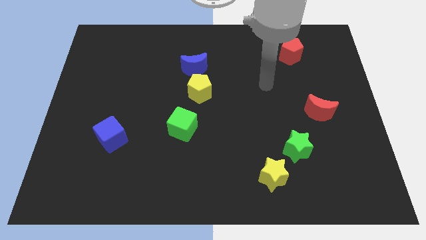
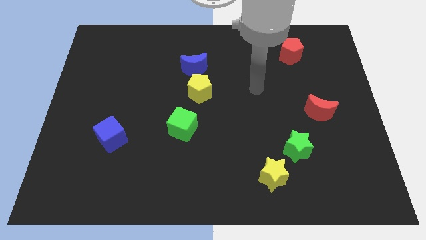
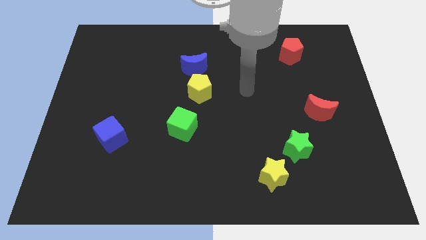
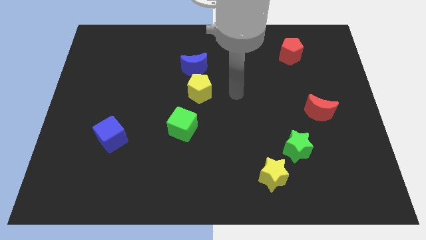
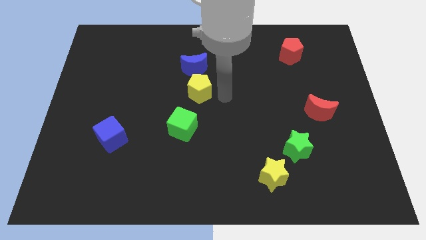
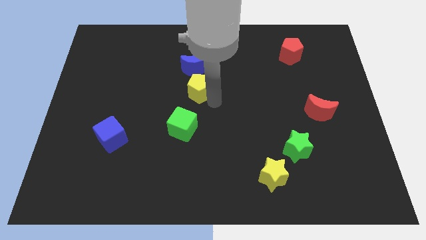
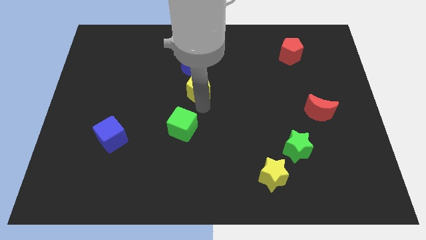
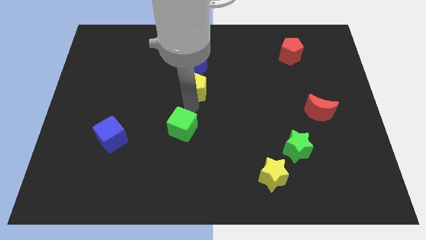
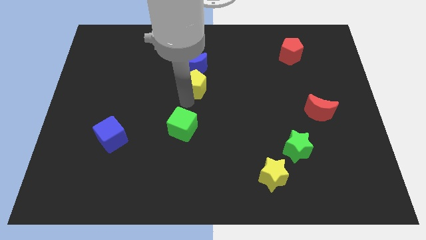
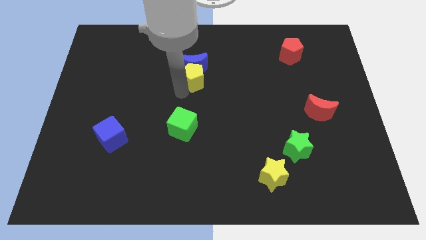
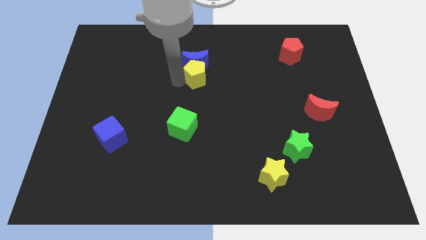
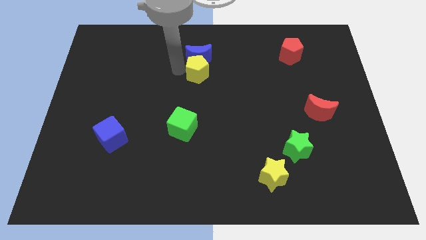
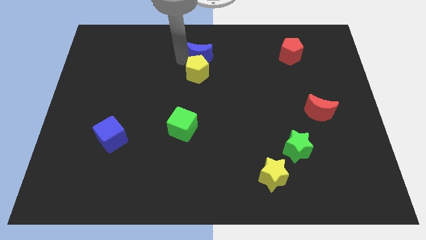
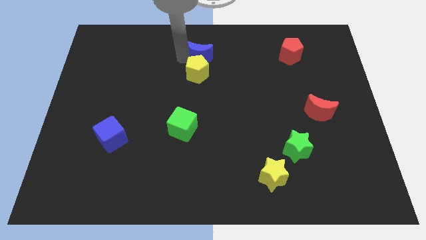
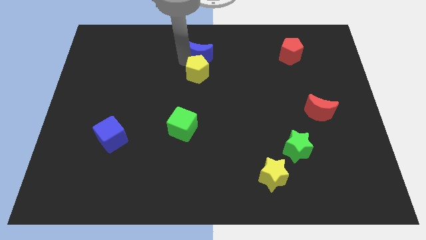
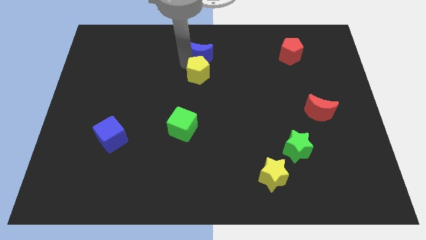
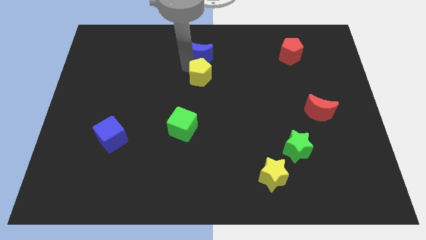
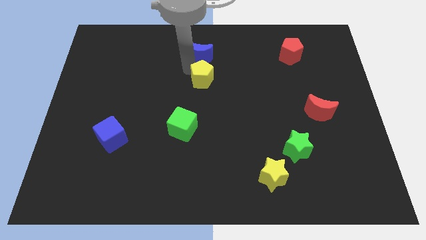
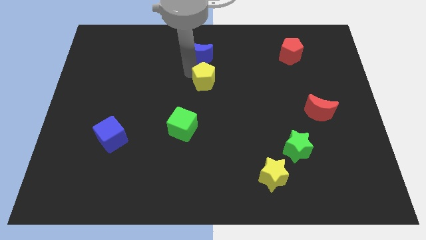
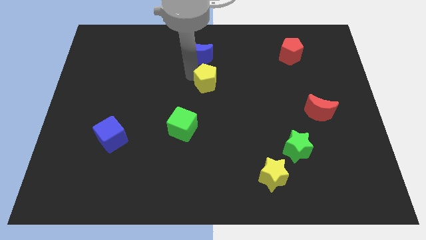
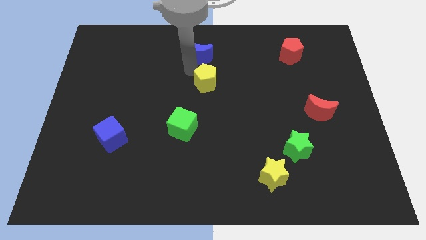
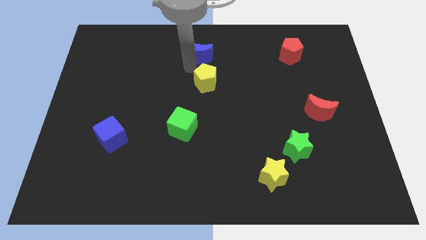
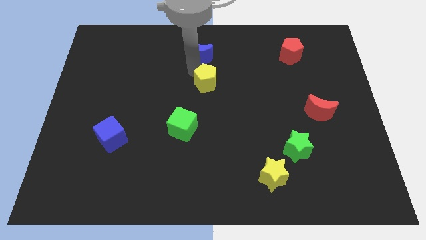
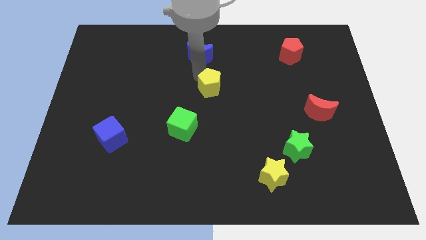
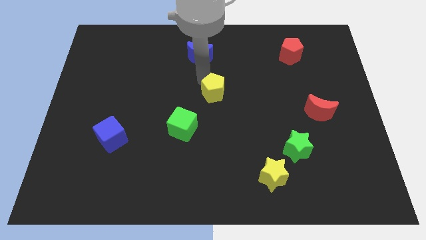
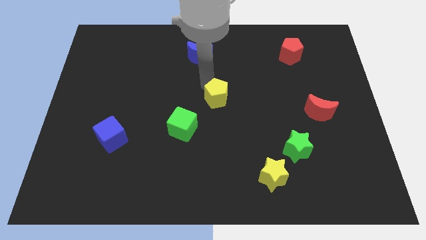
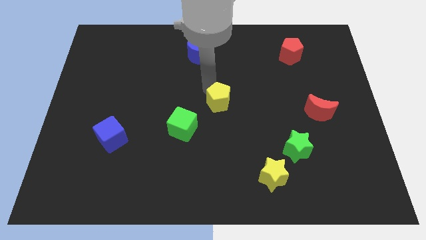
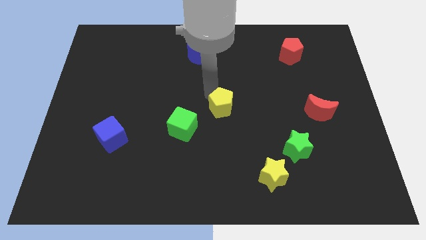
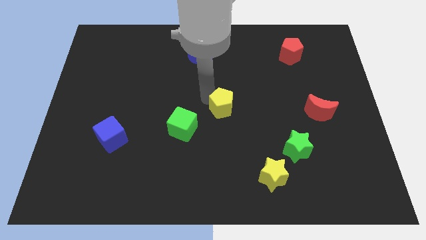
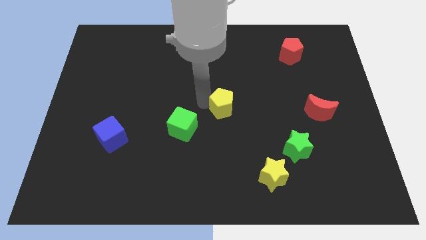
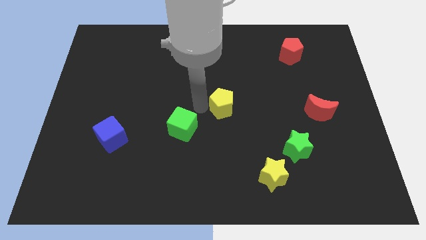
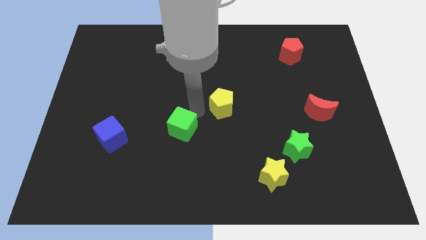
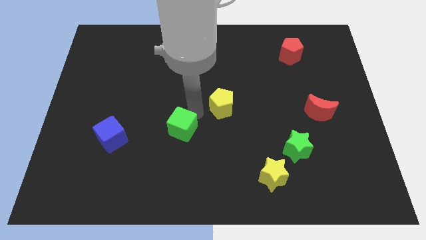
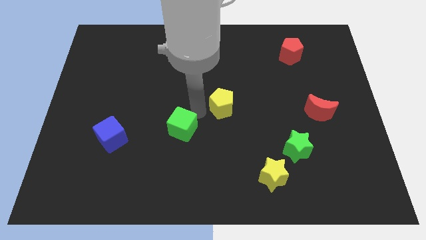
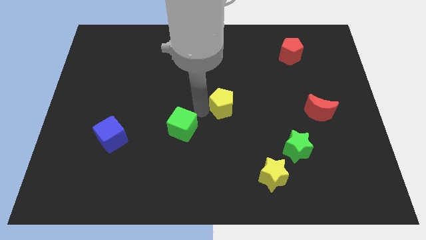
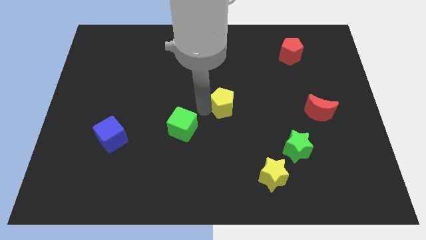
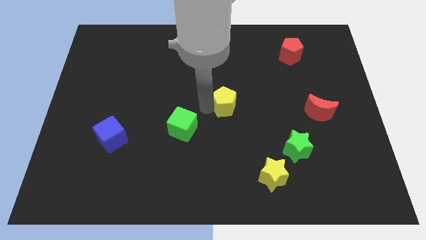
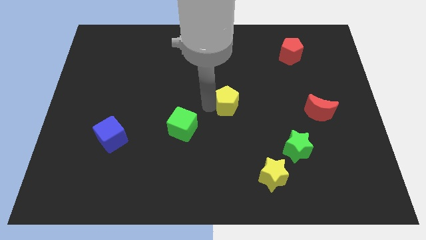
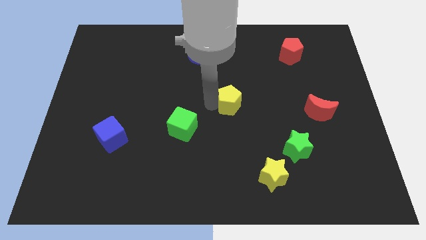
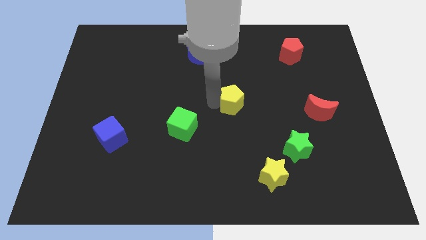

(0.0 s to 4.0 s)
slide the yellow pentagon to the right slightly

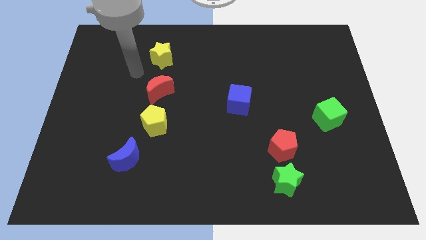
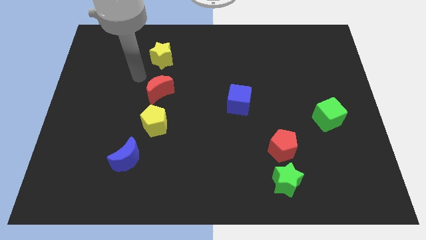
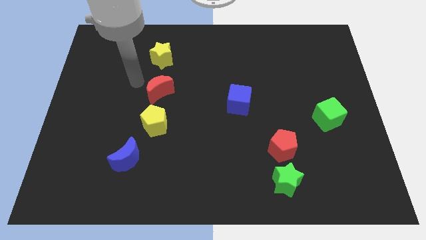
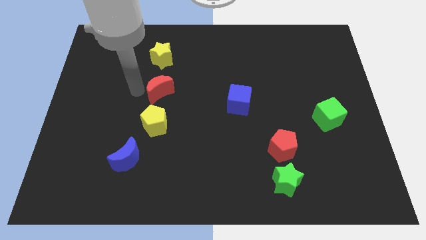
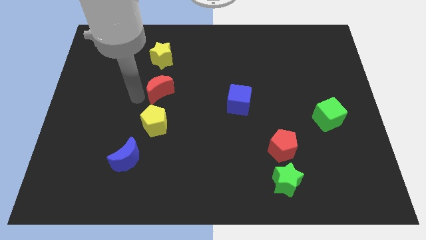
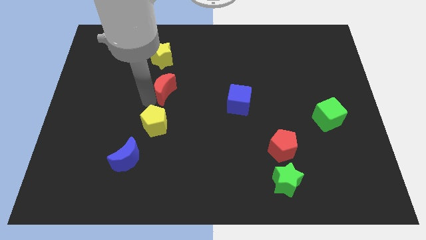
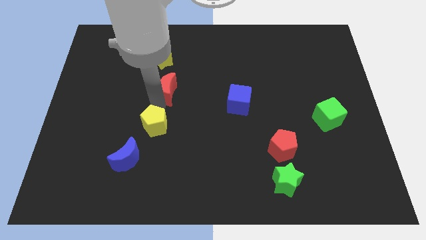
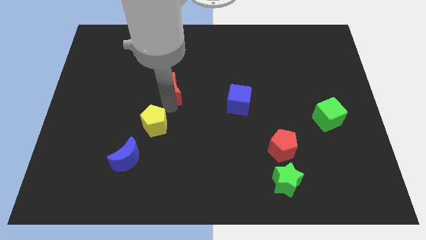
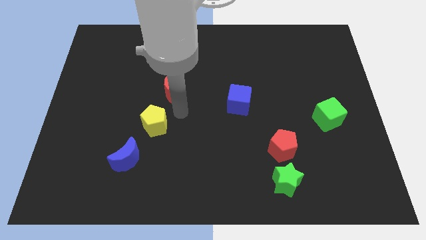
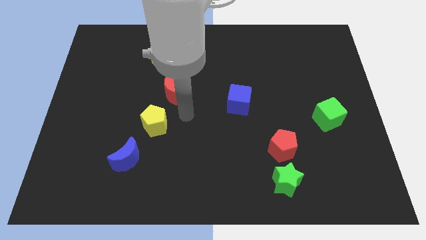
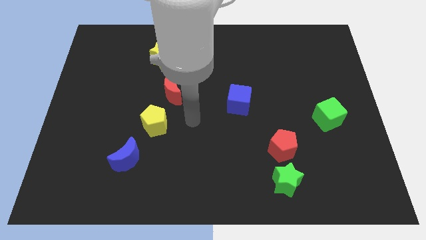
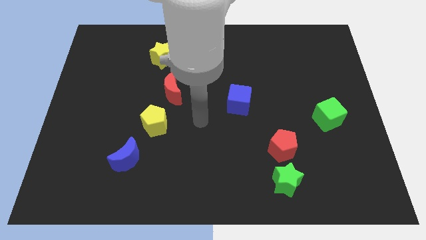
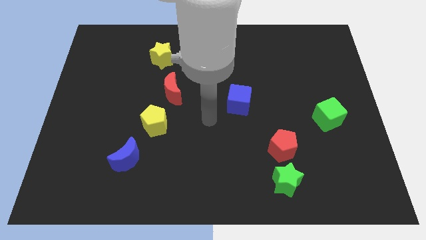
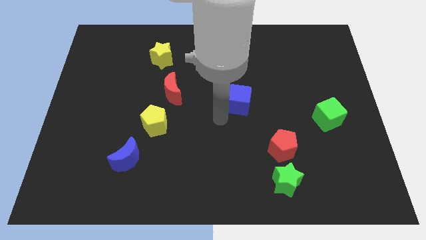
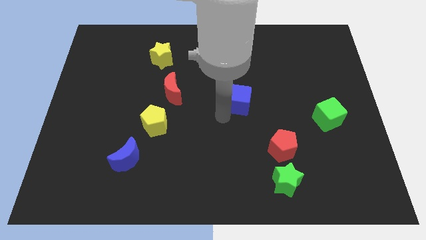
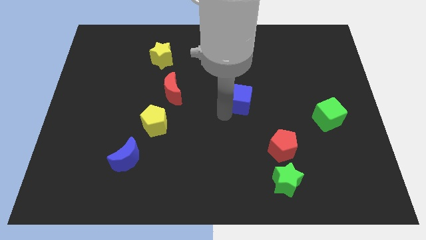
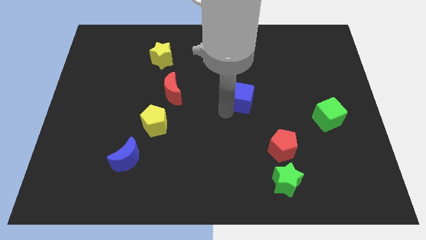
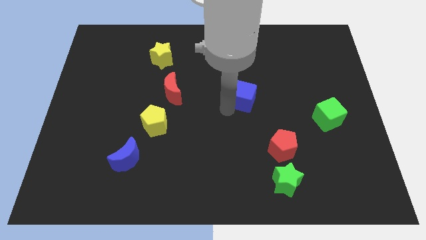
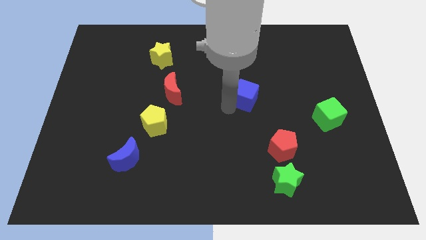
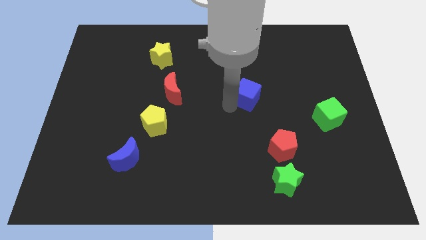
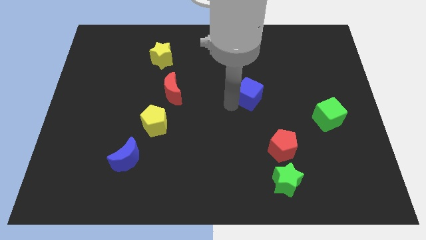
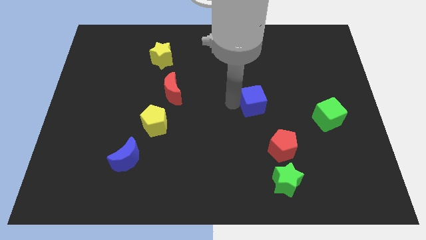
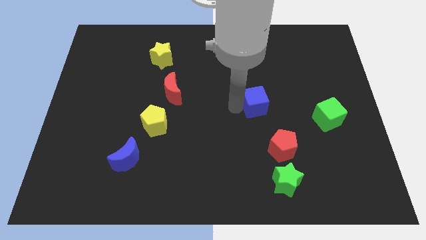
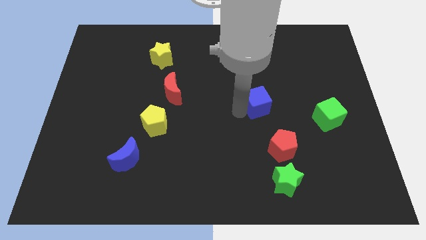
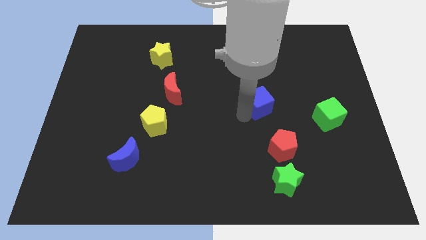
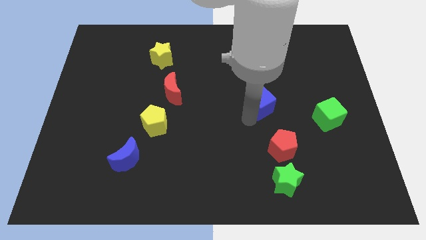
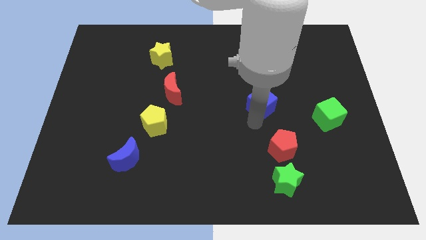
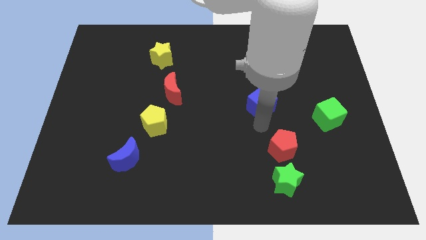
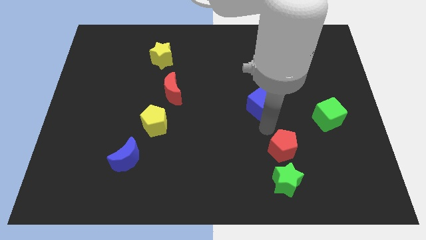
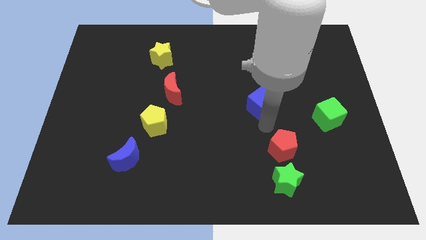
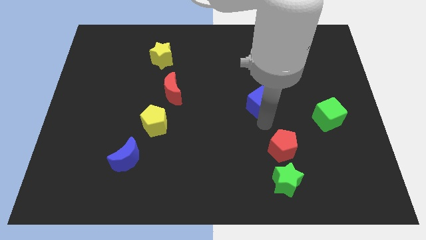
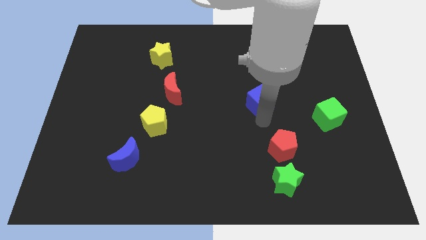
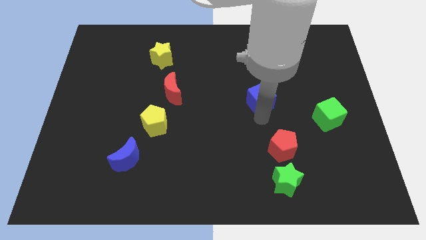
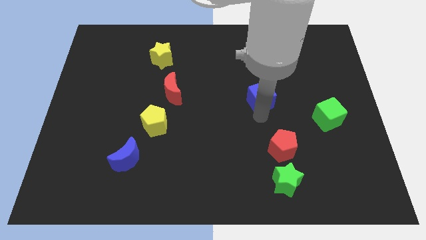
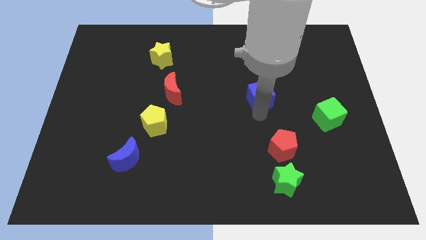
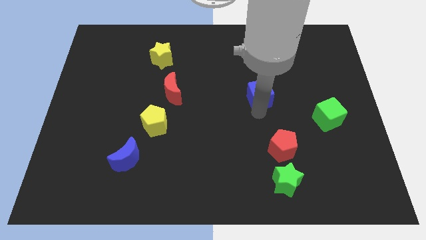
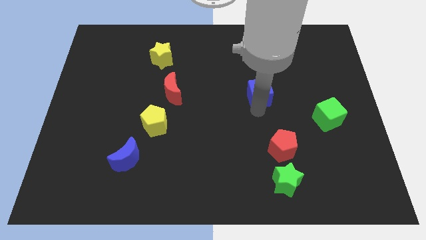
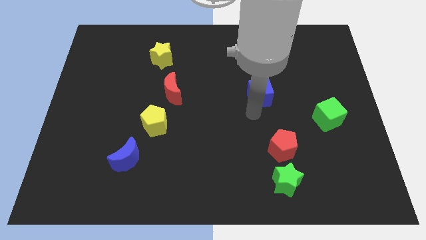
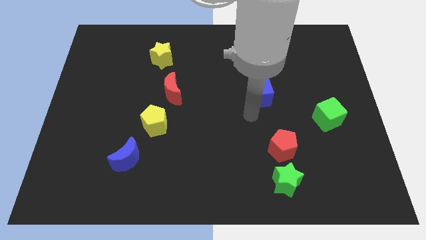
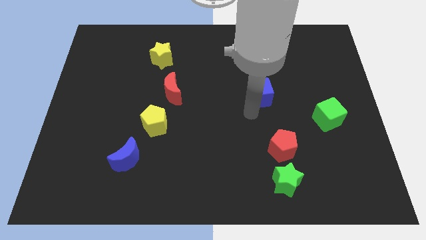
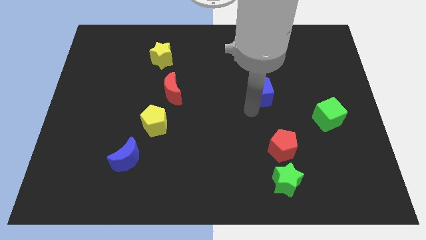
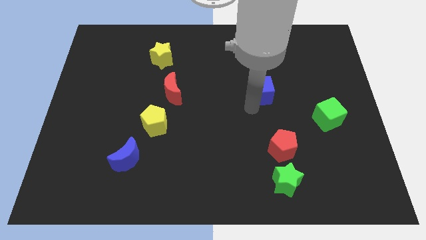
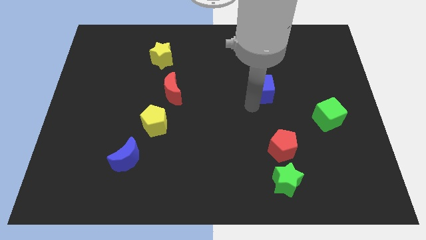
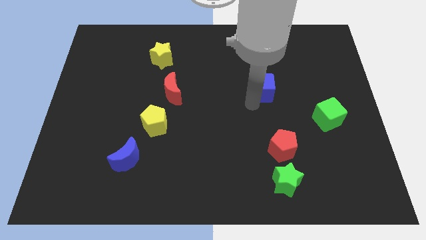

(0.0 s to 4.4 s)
slide the blue cube diagonally up and to the right a little
